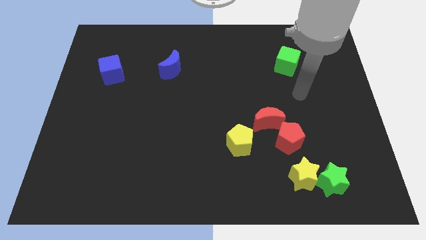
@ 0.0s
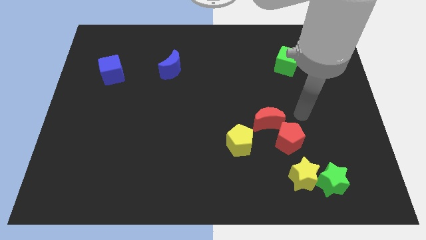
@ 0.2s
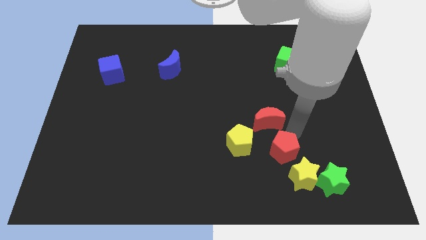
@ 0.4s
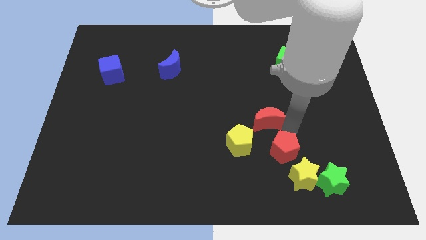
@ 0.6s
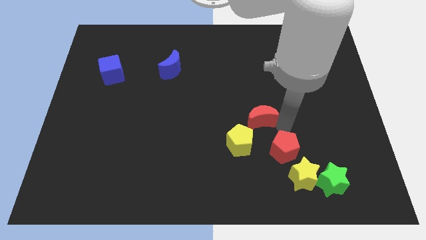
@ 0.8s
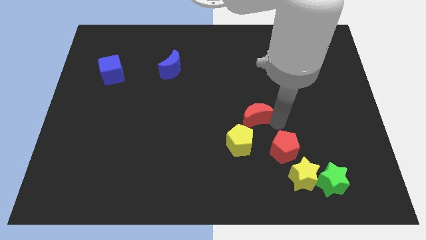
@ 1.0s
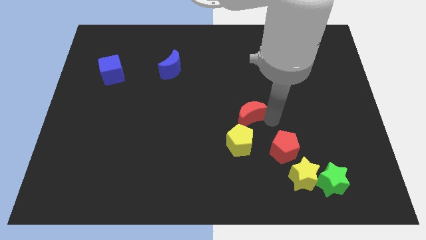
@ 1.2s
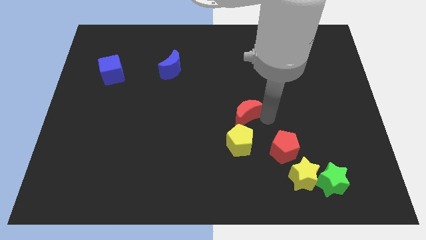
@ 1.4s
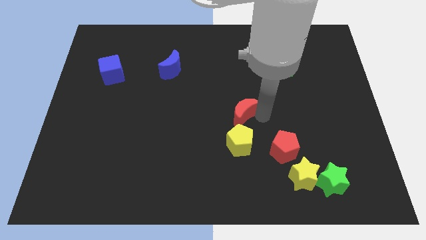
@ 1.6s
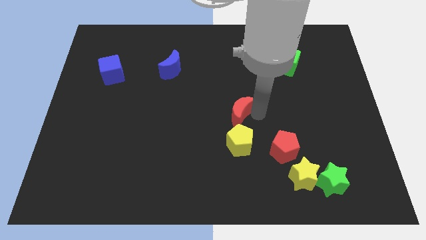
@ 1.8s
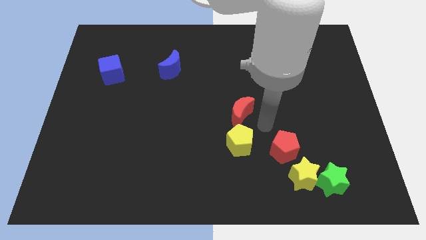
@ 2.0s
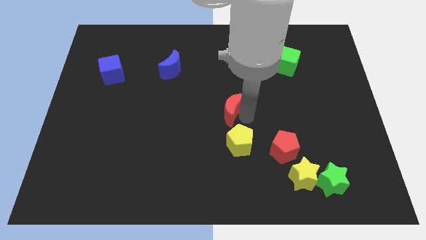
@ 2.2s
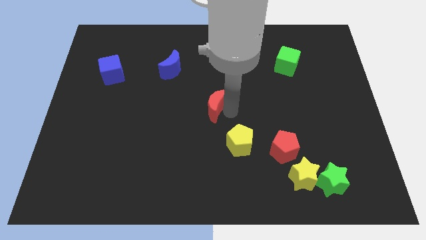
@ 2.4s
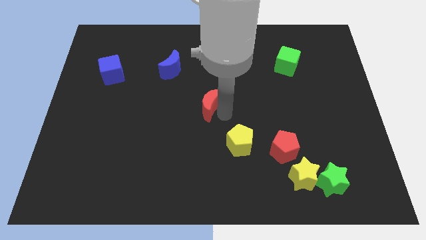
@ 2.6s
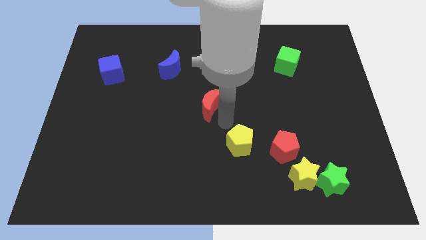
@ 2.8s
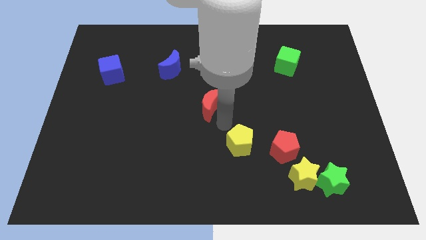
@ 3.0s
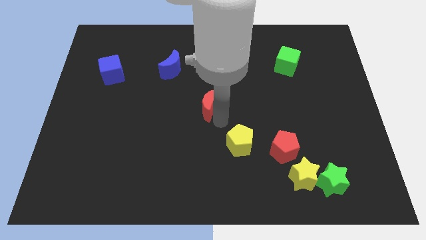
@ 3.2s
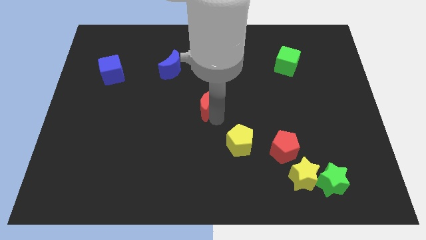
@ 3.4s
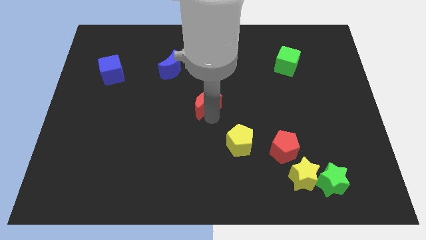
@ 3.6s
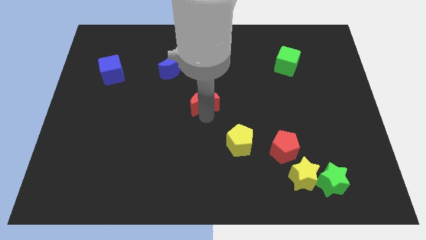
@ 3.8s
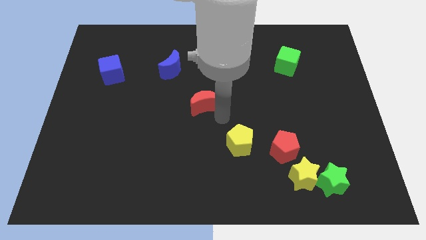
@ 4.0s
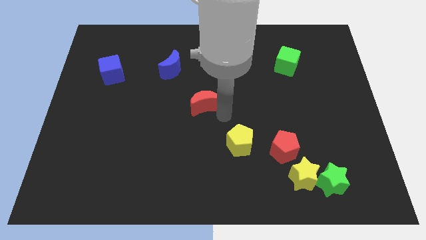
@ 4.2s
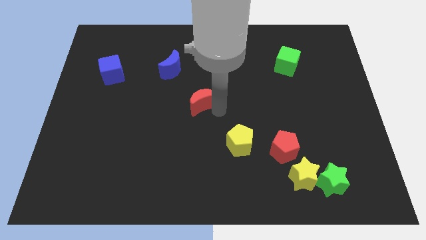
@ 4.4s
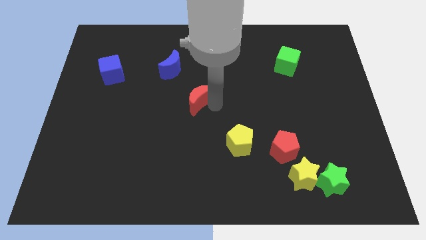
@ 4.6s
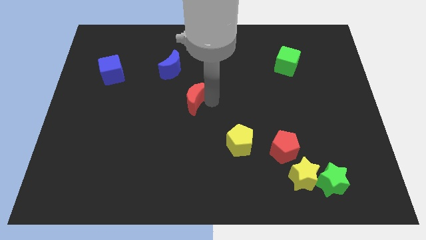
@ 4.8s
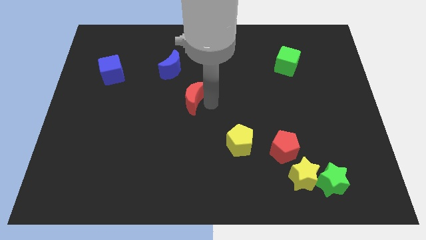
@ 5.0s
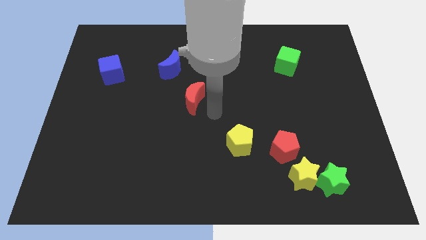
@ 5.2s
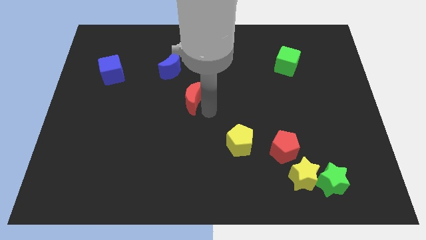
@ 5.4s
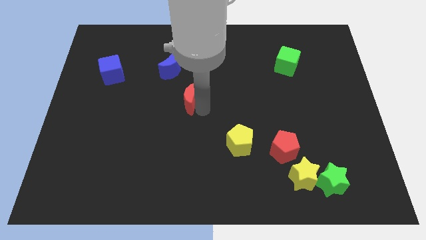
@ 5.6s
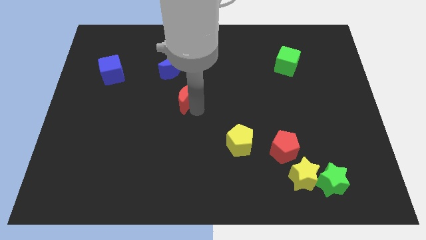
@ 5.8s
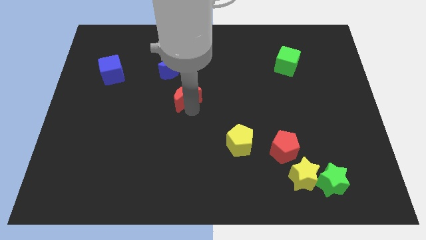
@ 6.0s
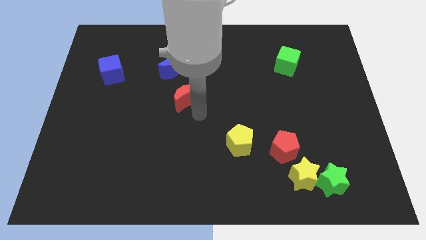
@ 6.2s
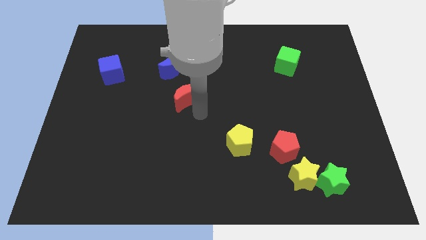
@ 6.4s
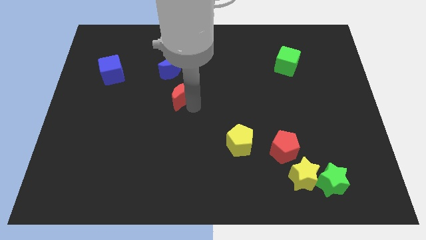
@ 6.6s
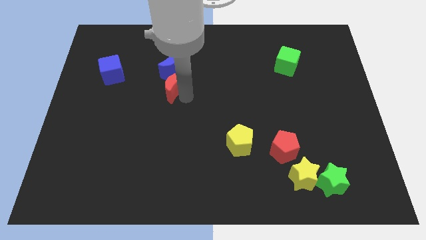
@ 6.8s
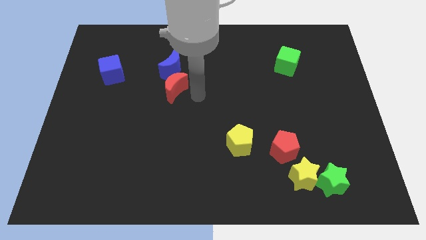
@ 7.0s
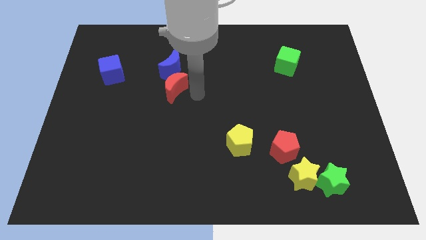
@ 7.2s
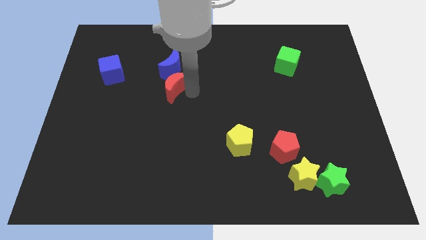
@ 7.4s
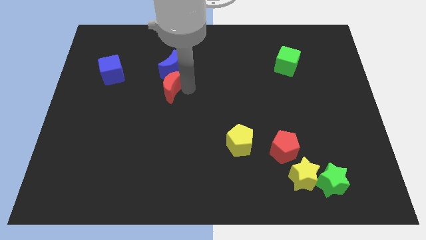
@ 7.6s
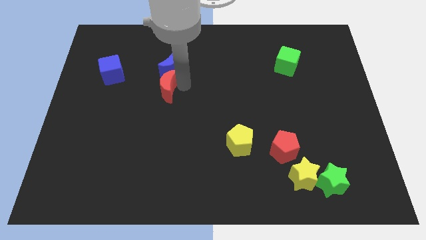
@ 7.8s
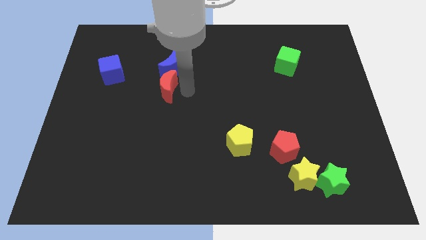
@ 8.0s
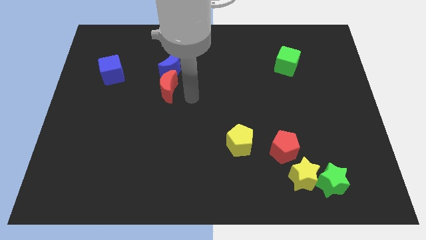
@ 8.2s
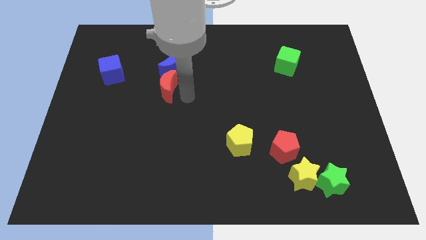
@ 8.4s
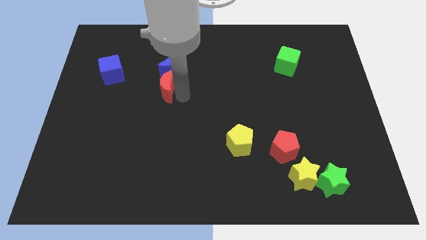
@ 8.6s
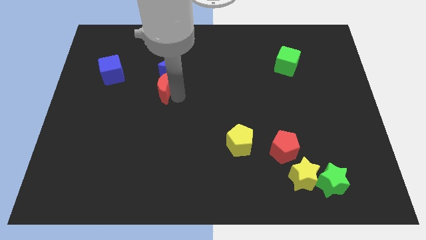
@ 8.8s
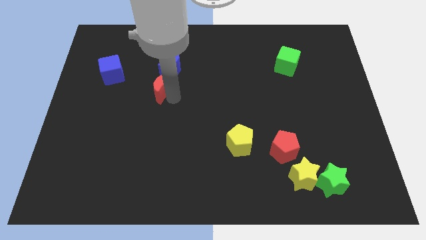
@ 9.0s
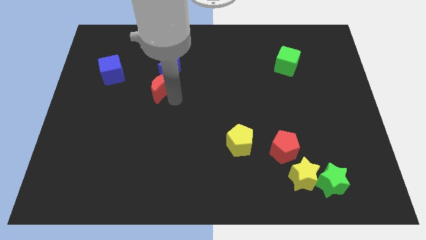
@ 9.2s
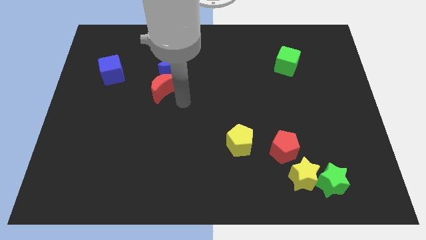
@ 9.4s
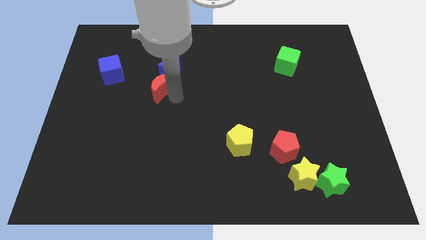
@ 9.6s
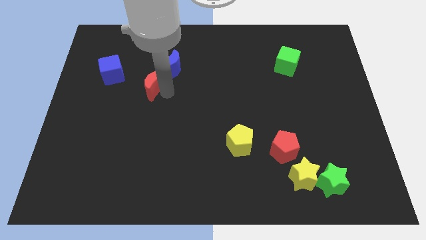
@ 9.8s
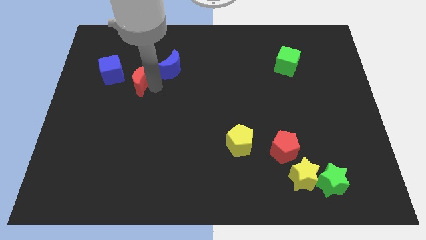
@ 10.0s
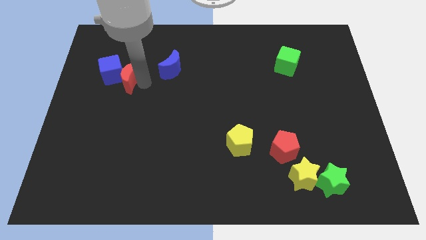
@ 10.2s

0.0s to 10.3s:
slide the red moon next to the blue cube

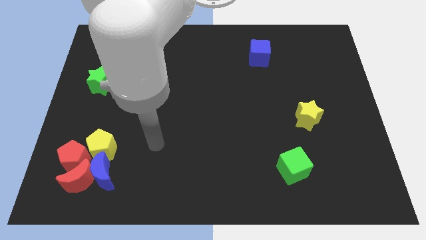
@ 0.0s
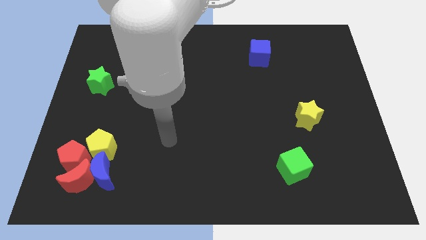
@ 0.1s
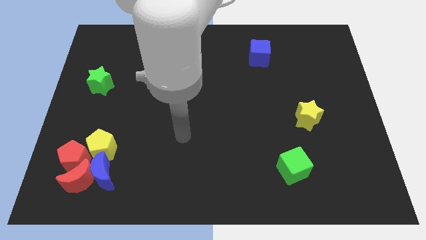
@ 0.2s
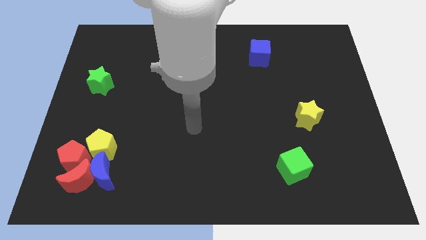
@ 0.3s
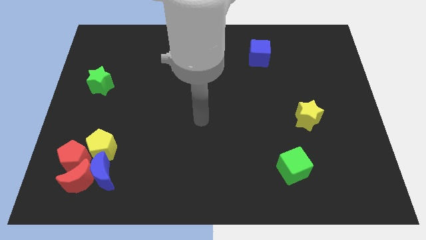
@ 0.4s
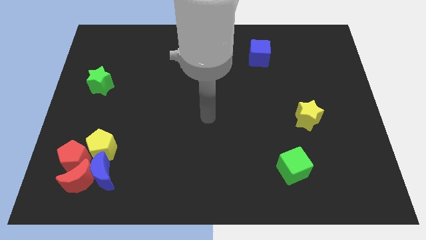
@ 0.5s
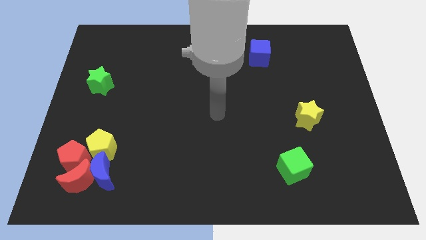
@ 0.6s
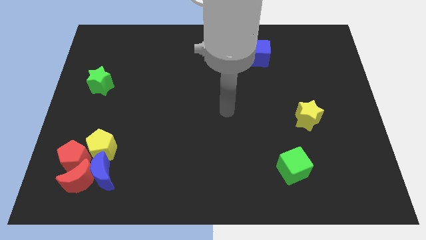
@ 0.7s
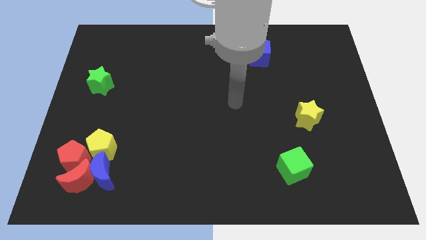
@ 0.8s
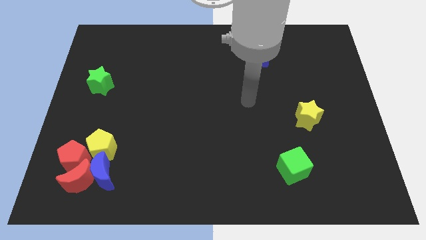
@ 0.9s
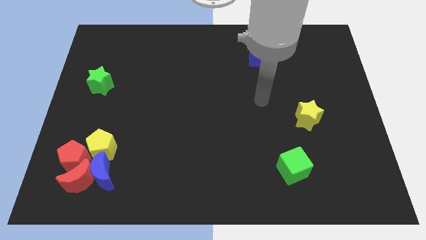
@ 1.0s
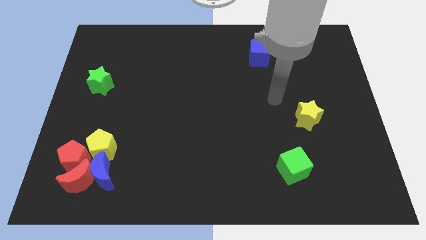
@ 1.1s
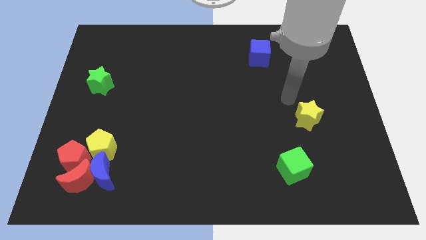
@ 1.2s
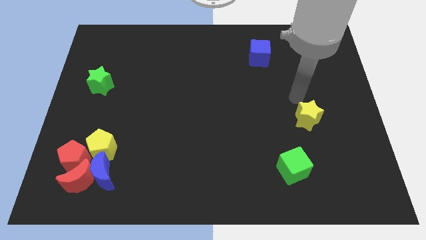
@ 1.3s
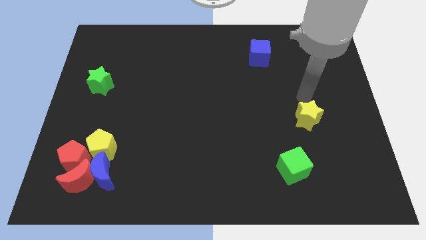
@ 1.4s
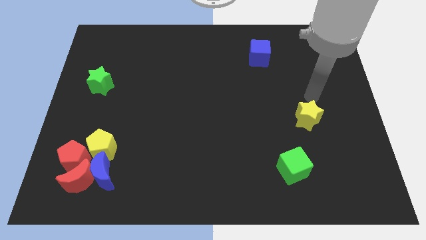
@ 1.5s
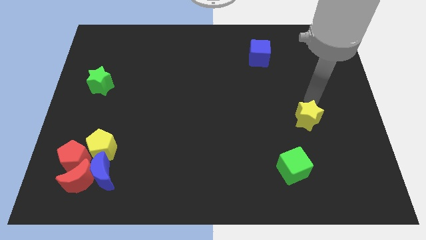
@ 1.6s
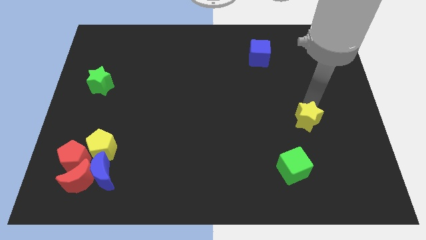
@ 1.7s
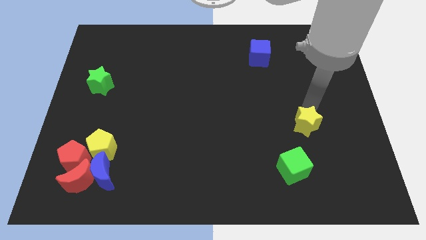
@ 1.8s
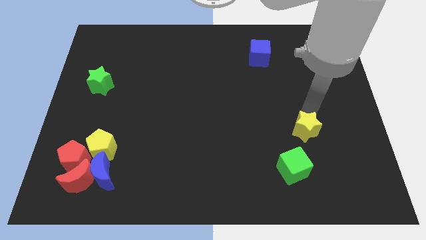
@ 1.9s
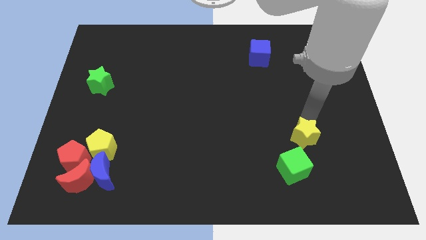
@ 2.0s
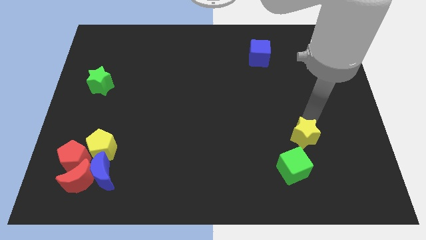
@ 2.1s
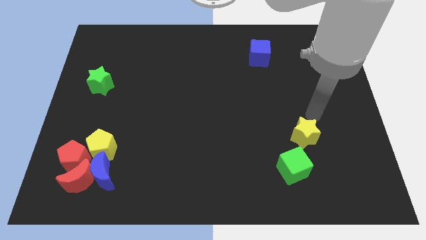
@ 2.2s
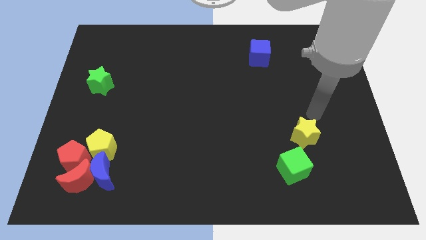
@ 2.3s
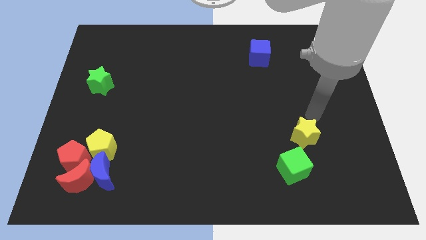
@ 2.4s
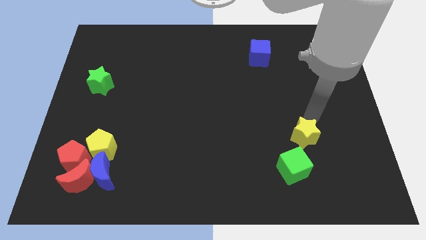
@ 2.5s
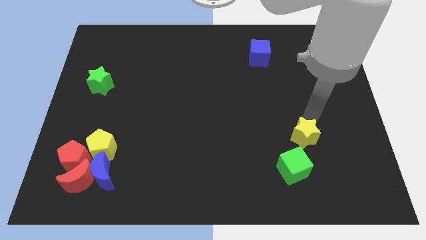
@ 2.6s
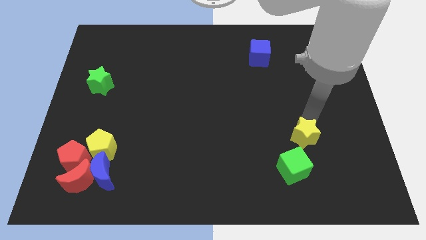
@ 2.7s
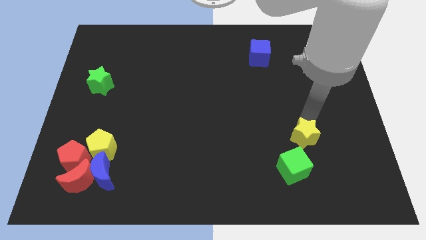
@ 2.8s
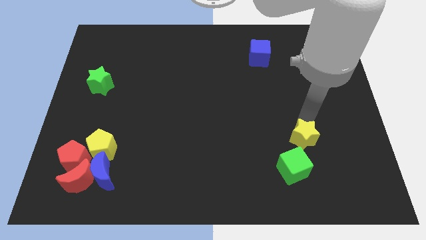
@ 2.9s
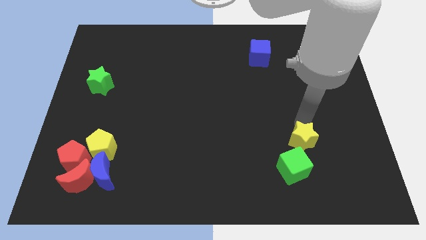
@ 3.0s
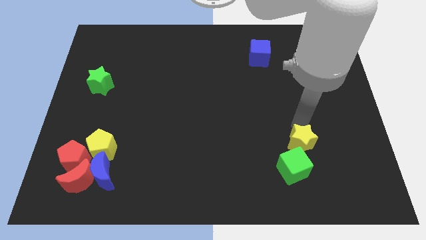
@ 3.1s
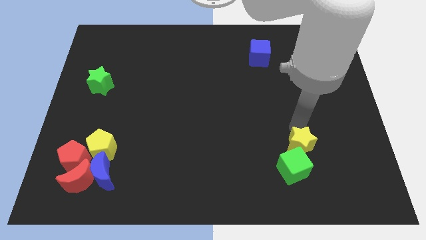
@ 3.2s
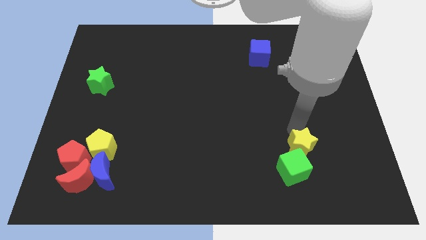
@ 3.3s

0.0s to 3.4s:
put the yellow star next to the green cube
